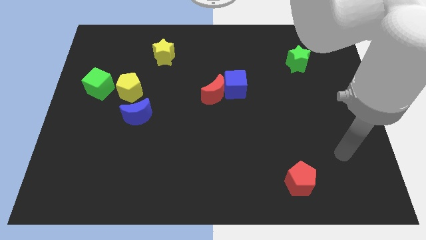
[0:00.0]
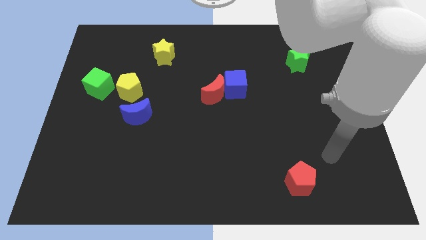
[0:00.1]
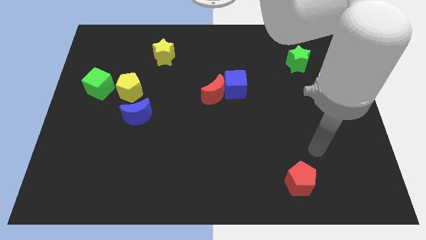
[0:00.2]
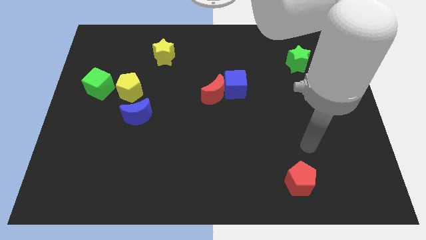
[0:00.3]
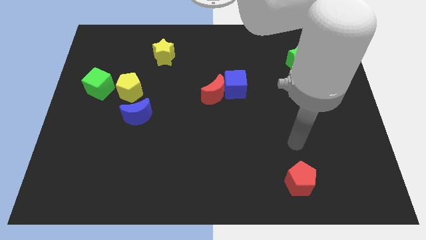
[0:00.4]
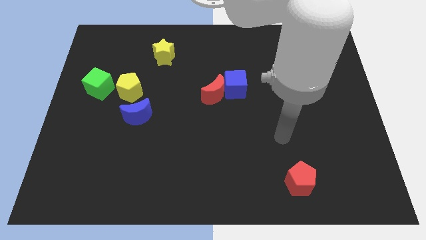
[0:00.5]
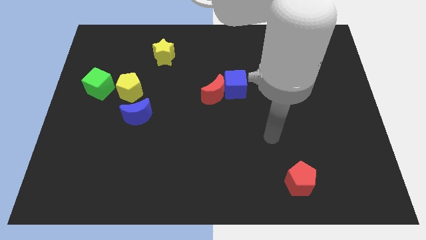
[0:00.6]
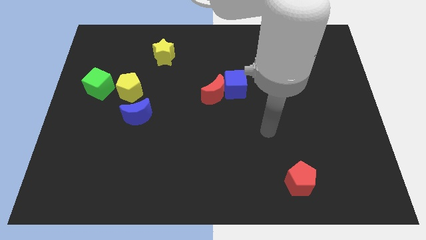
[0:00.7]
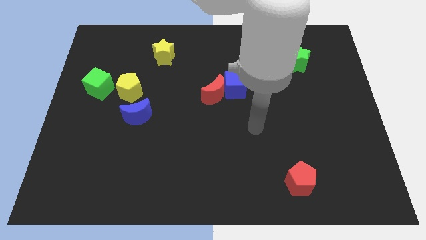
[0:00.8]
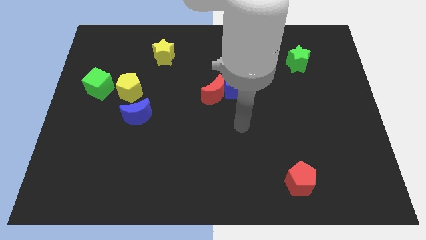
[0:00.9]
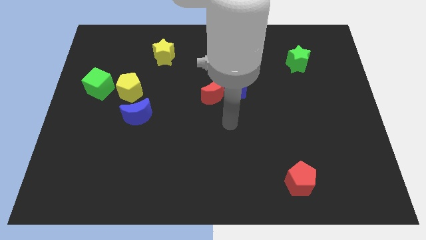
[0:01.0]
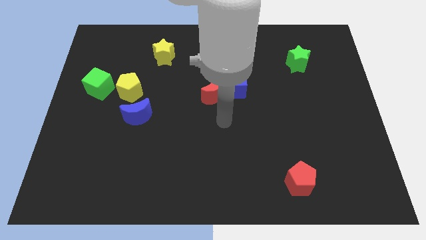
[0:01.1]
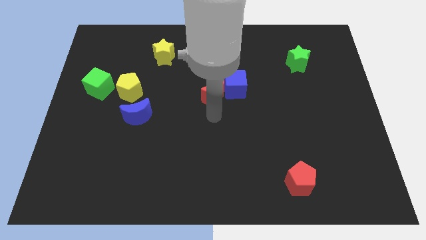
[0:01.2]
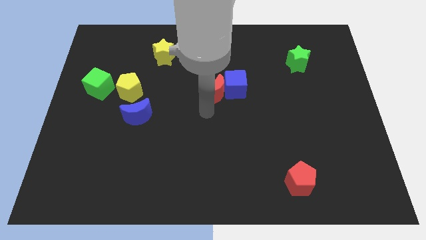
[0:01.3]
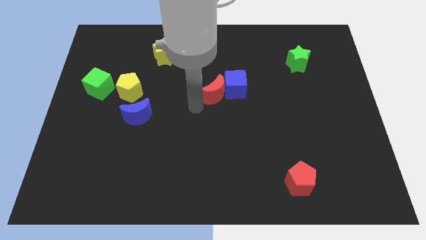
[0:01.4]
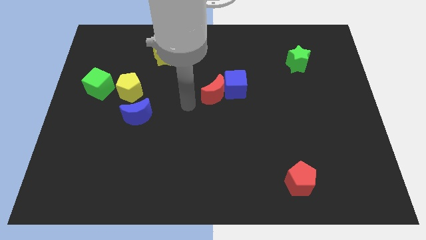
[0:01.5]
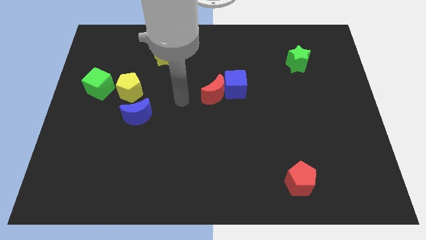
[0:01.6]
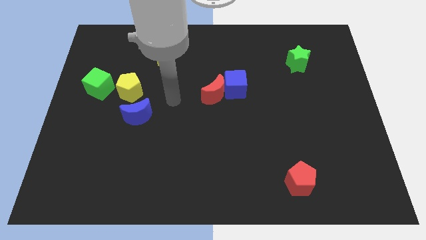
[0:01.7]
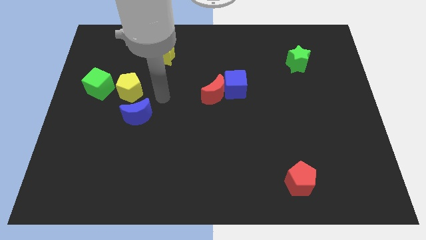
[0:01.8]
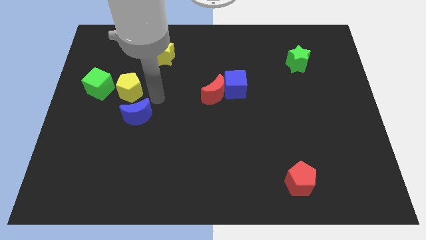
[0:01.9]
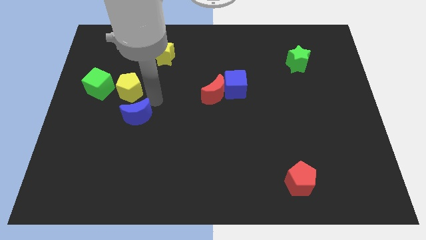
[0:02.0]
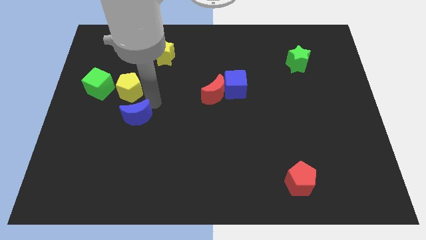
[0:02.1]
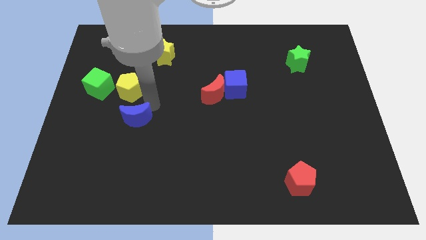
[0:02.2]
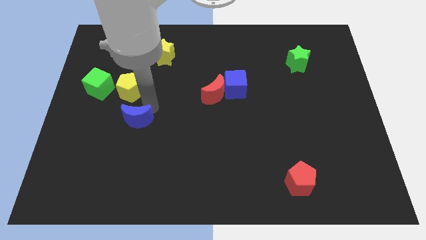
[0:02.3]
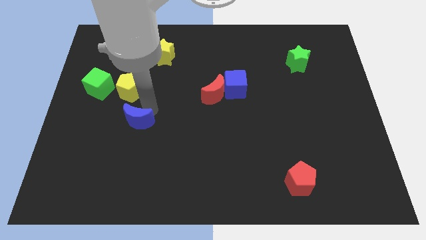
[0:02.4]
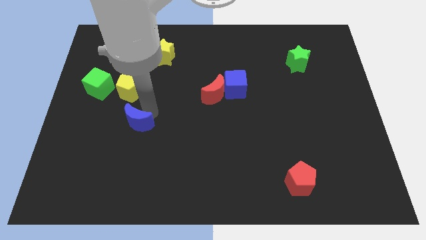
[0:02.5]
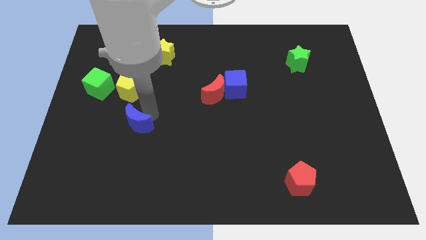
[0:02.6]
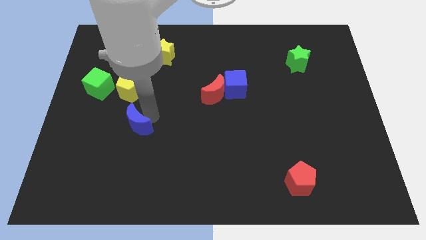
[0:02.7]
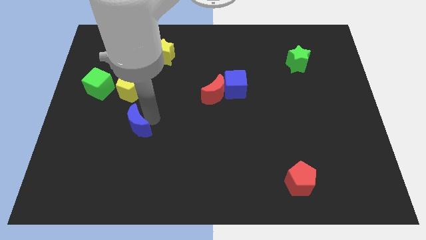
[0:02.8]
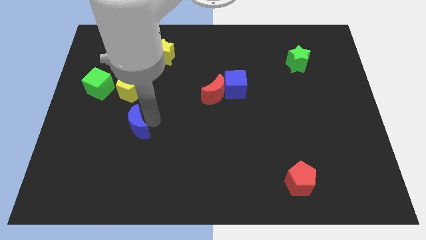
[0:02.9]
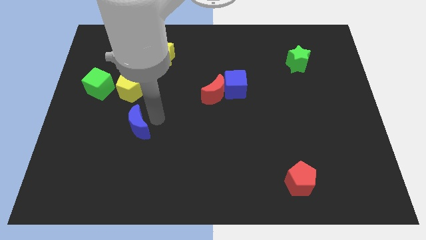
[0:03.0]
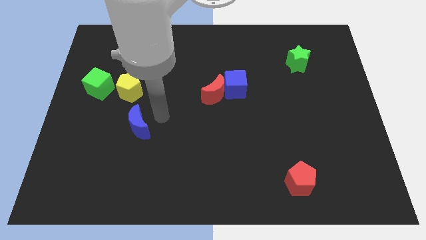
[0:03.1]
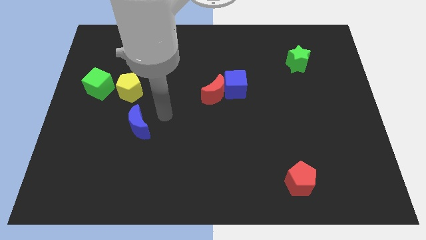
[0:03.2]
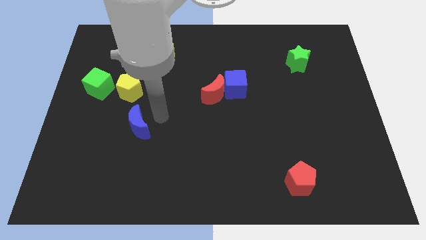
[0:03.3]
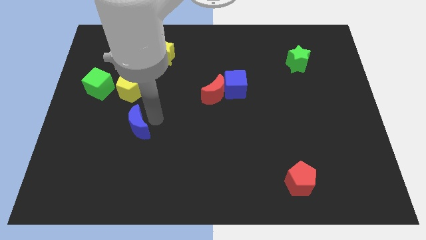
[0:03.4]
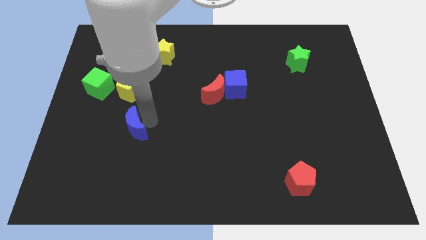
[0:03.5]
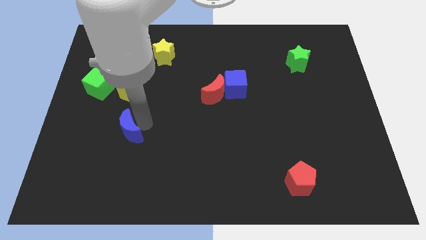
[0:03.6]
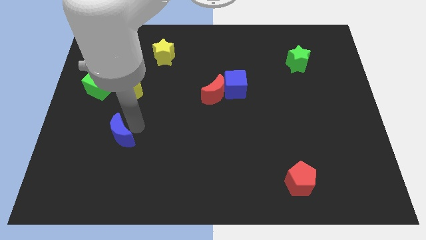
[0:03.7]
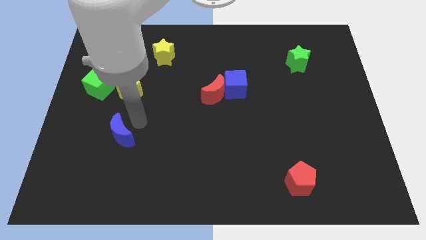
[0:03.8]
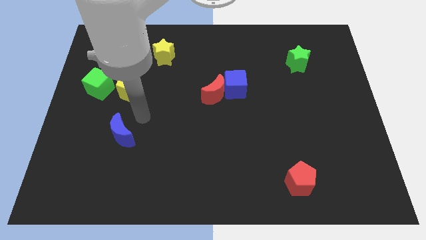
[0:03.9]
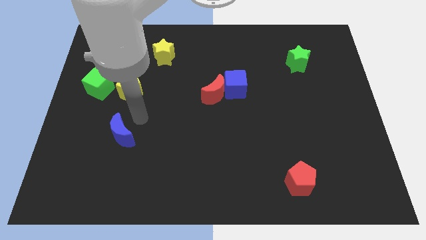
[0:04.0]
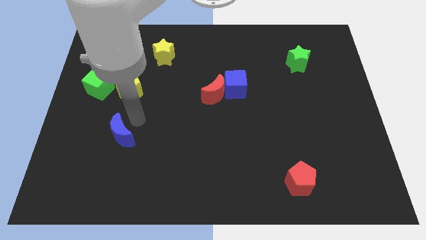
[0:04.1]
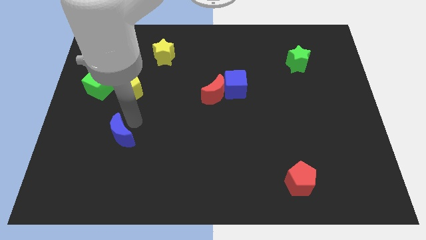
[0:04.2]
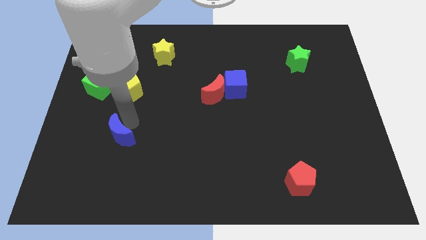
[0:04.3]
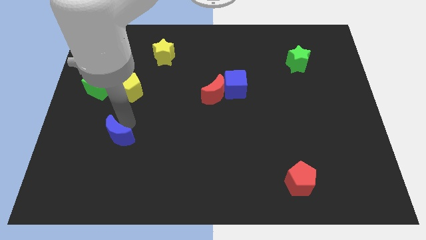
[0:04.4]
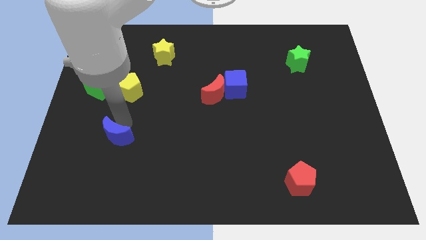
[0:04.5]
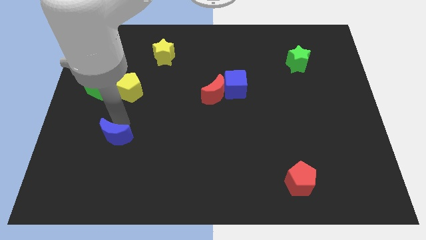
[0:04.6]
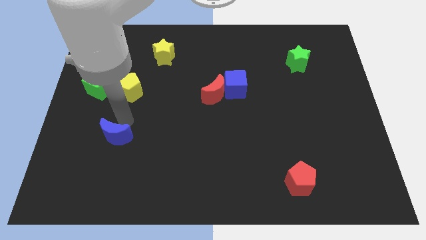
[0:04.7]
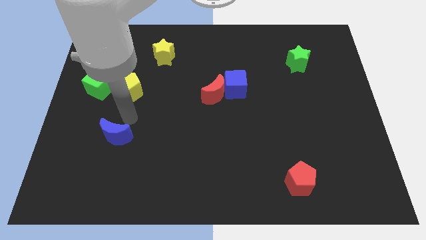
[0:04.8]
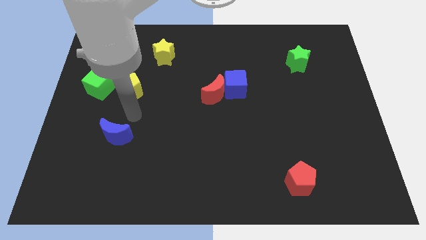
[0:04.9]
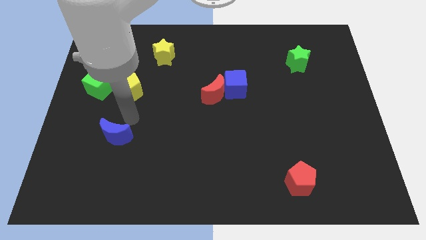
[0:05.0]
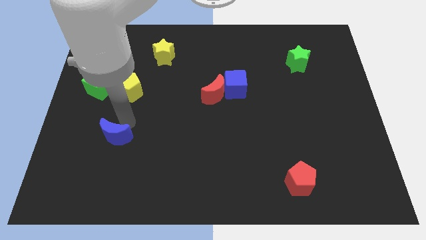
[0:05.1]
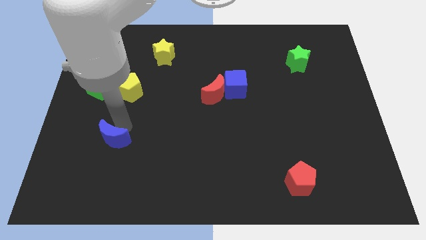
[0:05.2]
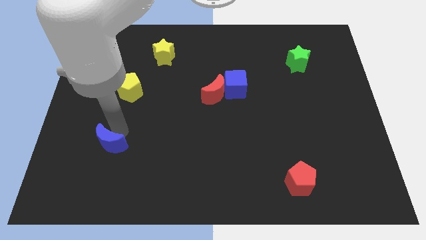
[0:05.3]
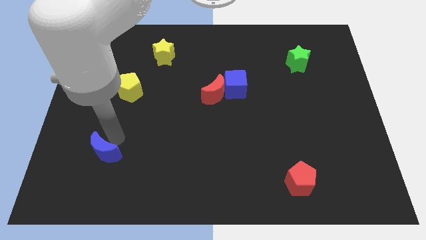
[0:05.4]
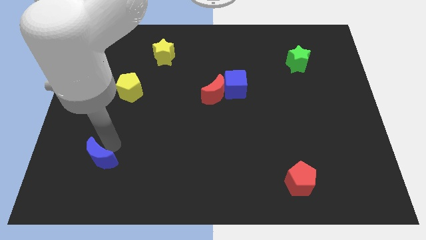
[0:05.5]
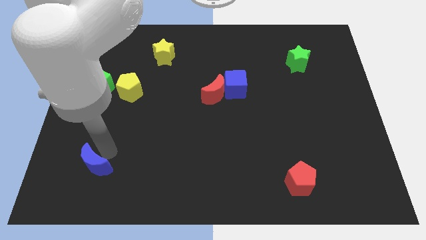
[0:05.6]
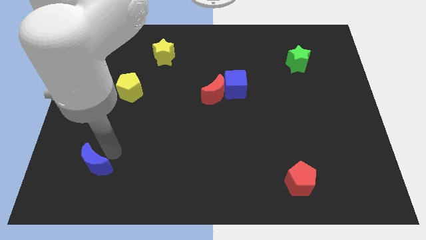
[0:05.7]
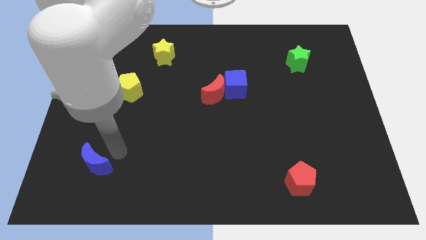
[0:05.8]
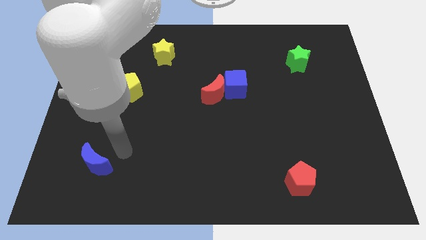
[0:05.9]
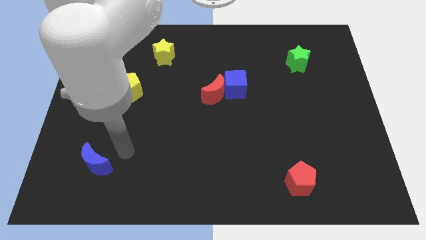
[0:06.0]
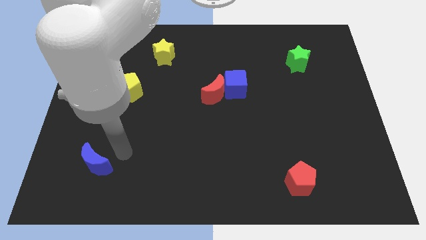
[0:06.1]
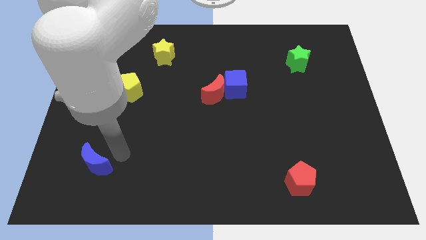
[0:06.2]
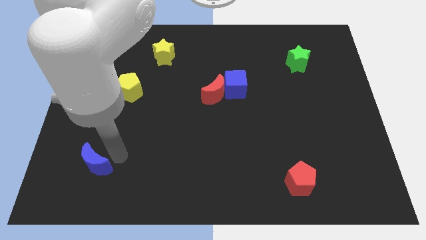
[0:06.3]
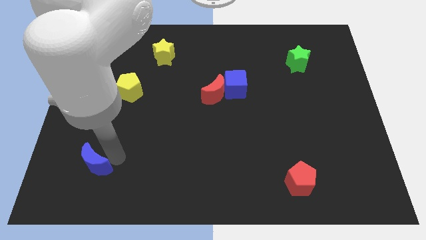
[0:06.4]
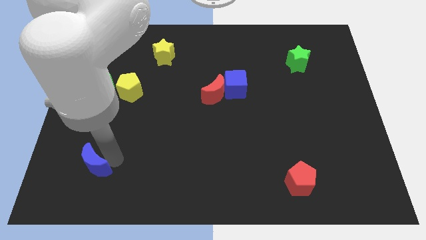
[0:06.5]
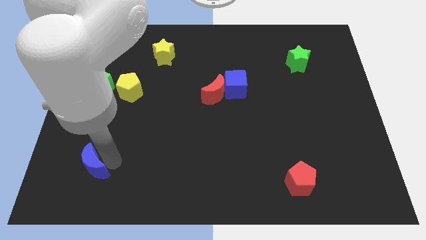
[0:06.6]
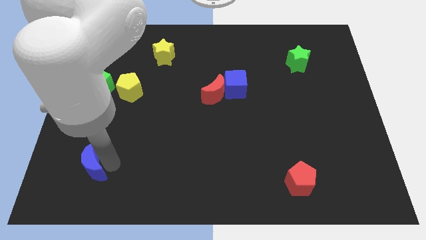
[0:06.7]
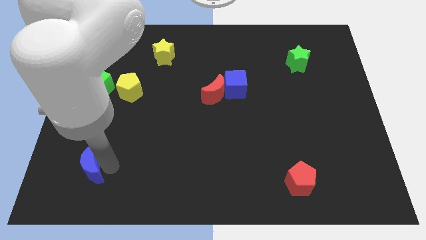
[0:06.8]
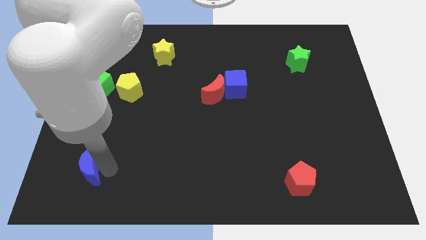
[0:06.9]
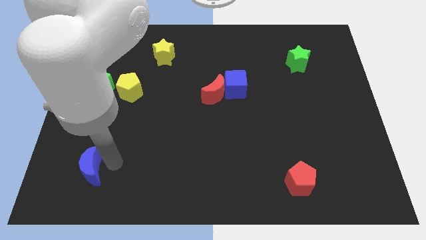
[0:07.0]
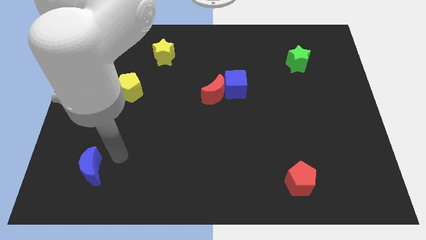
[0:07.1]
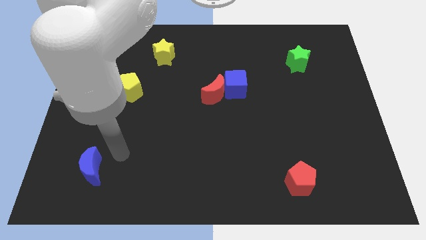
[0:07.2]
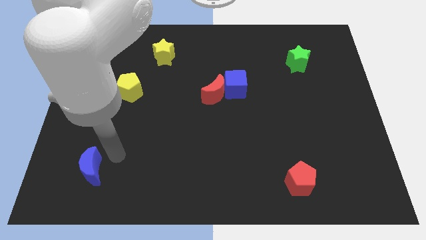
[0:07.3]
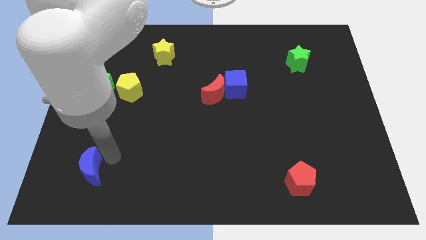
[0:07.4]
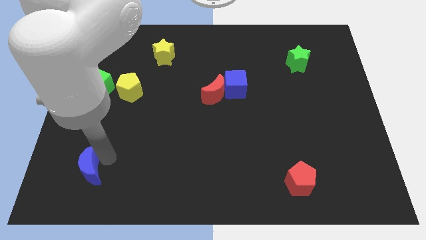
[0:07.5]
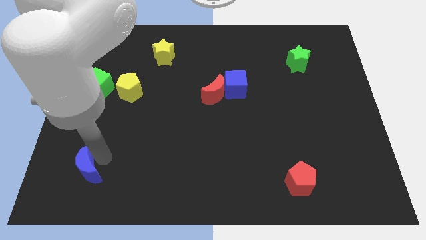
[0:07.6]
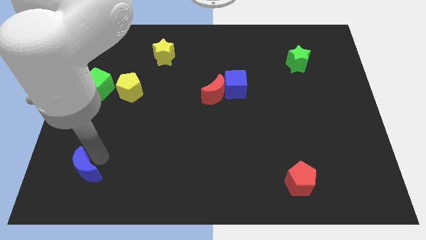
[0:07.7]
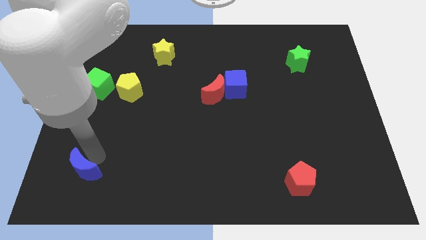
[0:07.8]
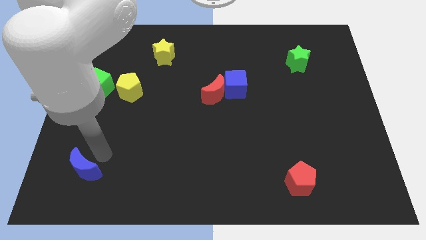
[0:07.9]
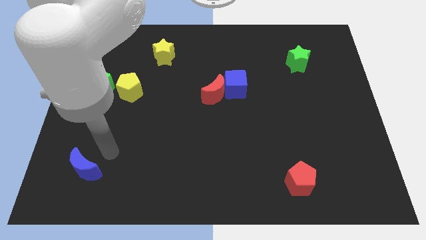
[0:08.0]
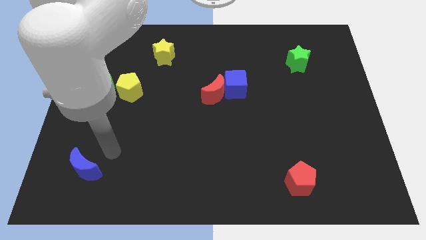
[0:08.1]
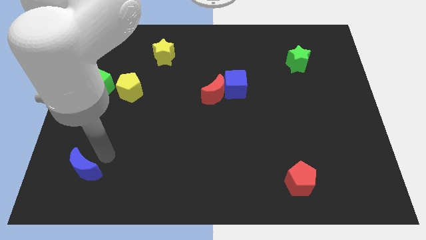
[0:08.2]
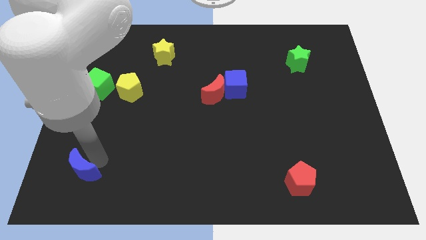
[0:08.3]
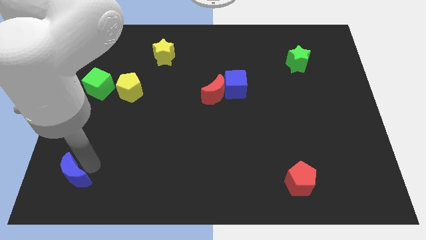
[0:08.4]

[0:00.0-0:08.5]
push the blue moon to the lower left corner
